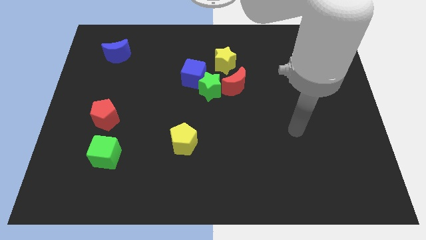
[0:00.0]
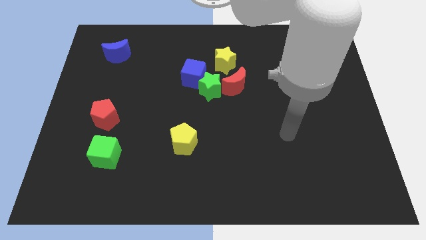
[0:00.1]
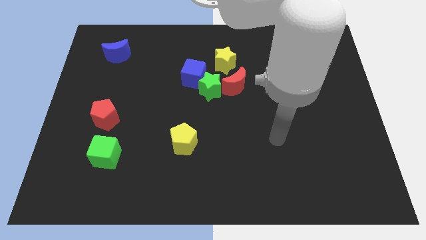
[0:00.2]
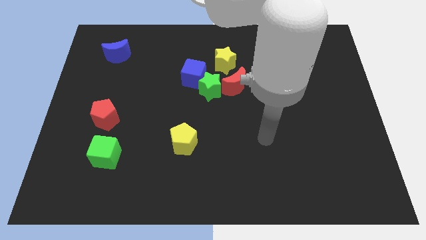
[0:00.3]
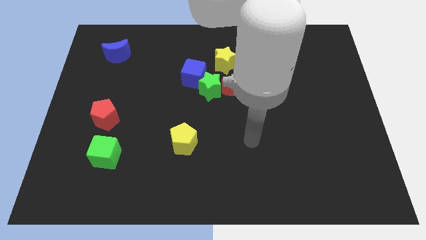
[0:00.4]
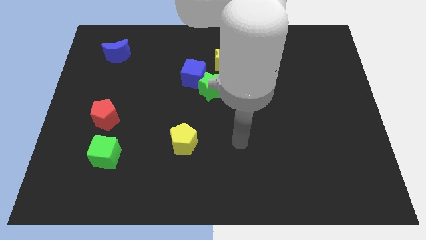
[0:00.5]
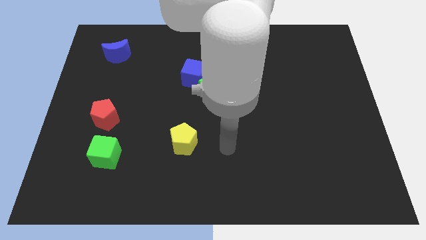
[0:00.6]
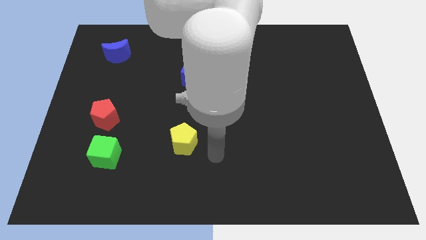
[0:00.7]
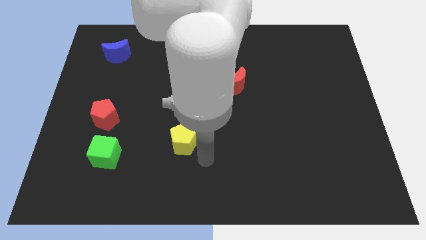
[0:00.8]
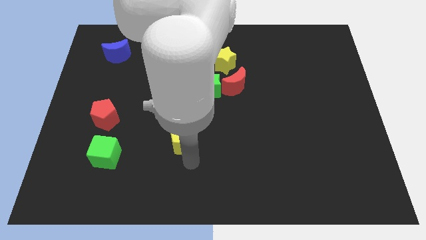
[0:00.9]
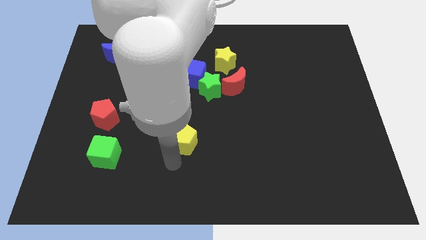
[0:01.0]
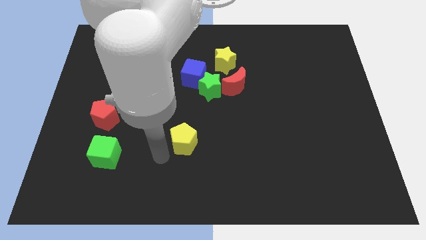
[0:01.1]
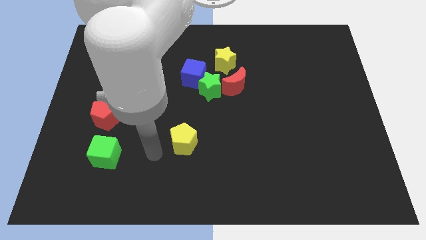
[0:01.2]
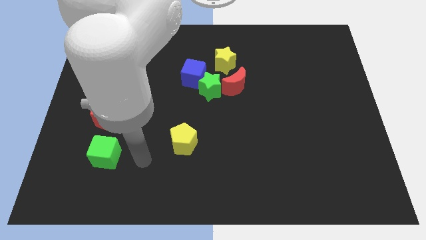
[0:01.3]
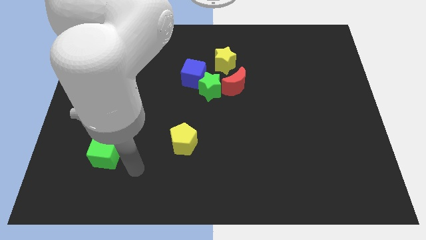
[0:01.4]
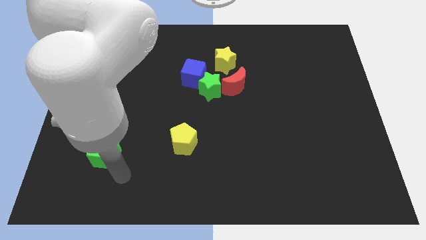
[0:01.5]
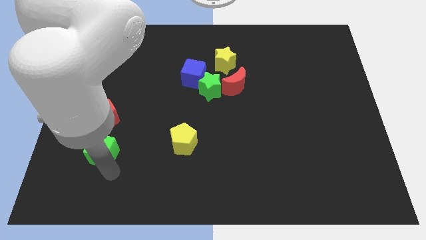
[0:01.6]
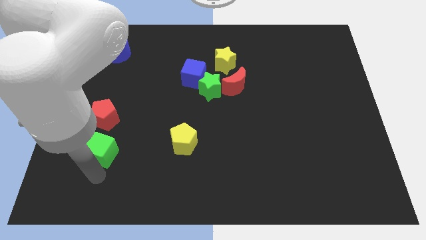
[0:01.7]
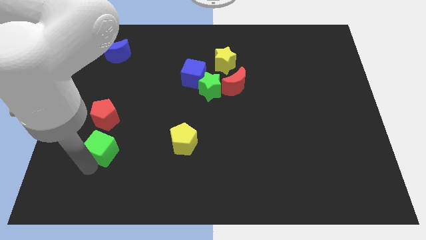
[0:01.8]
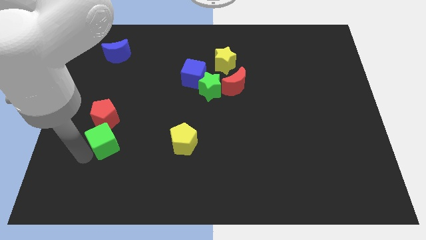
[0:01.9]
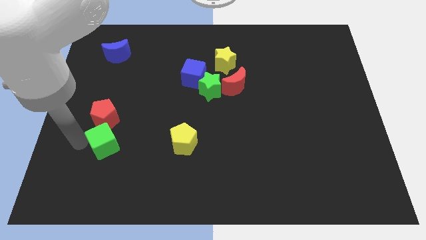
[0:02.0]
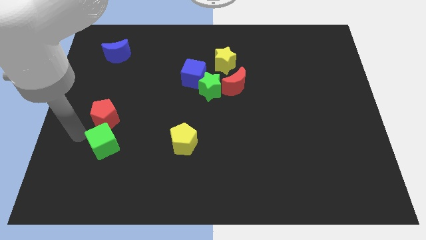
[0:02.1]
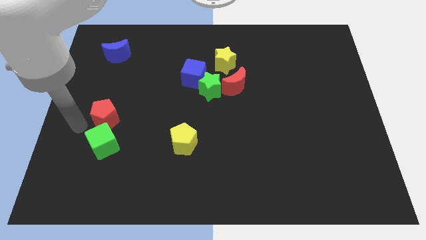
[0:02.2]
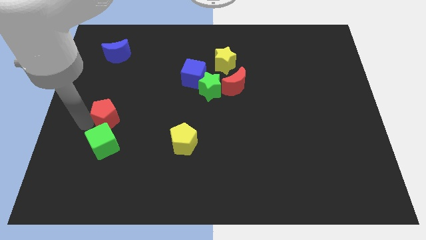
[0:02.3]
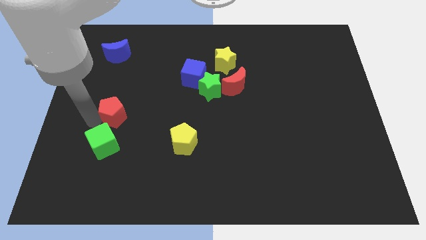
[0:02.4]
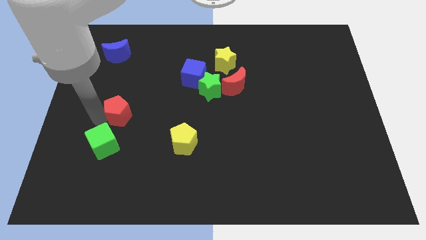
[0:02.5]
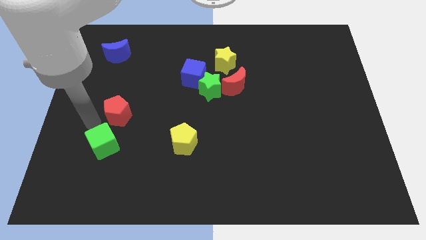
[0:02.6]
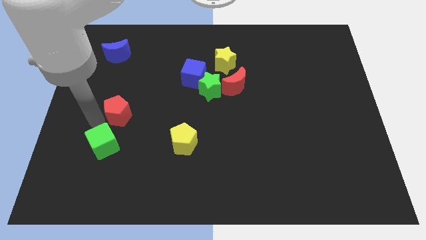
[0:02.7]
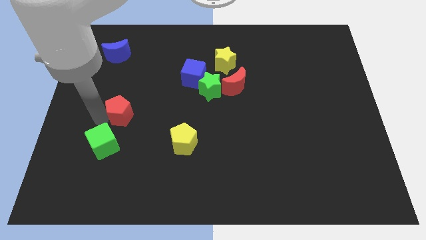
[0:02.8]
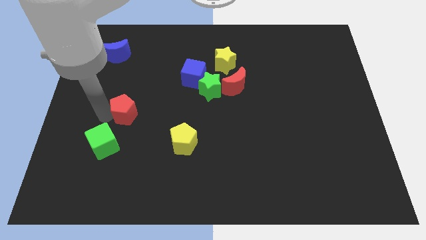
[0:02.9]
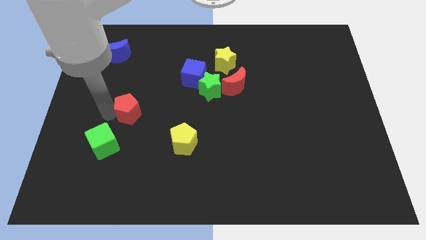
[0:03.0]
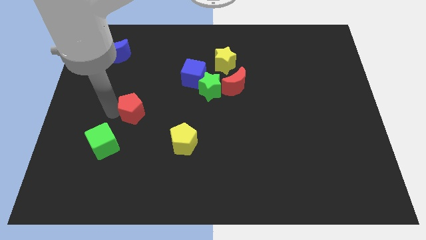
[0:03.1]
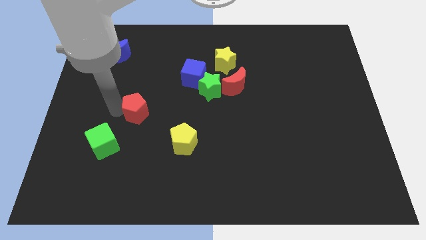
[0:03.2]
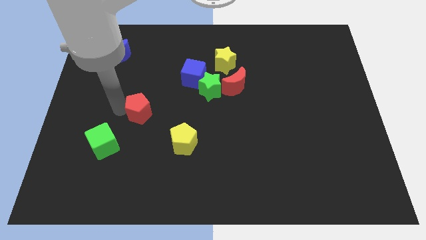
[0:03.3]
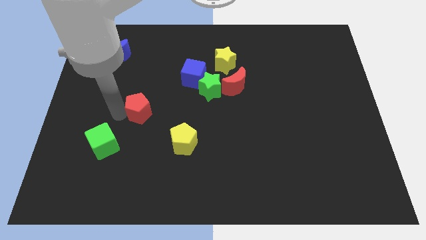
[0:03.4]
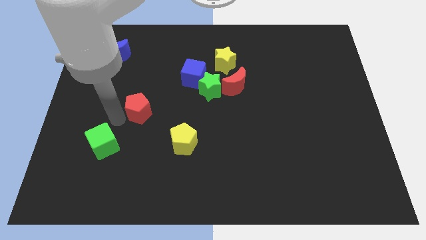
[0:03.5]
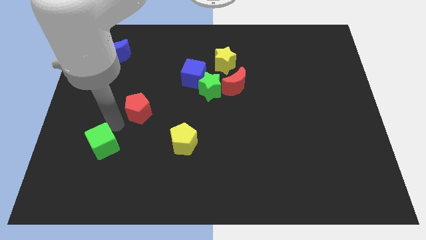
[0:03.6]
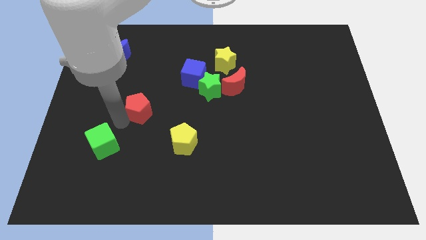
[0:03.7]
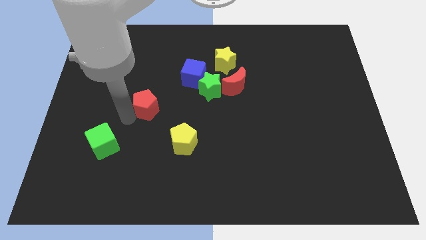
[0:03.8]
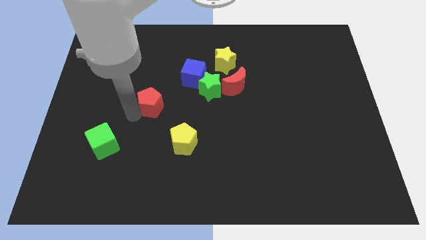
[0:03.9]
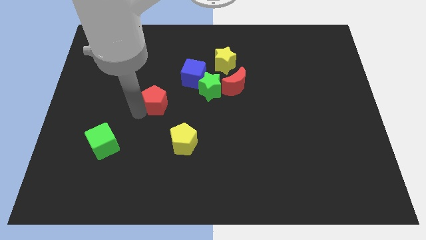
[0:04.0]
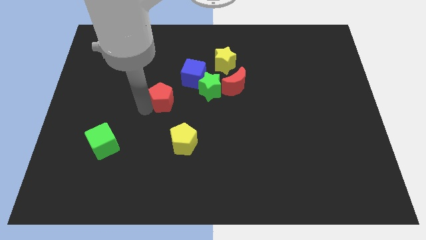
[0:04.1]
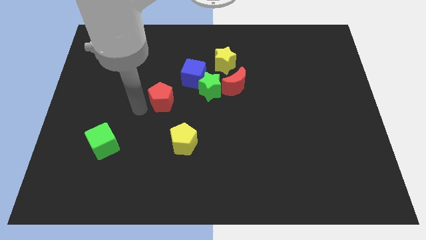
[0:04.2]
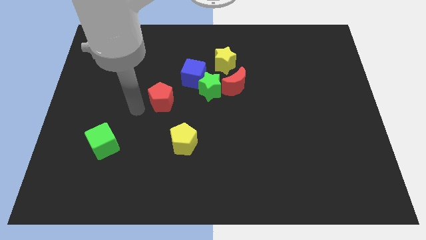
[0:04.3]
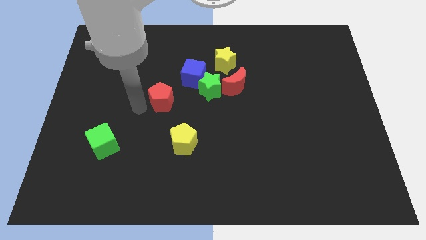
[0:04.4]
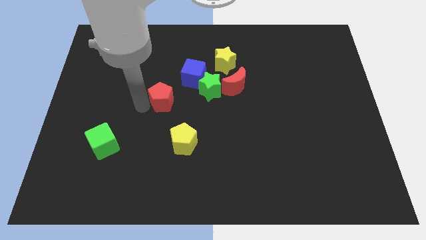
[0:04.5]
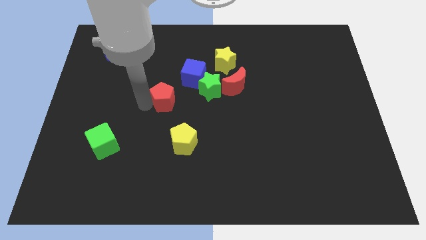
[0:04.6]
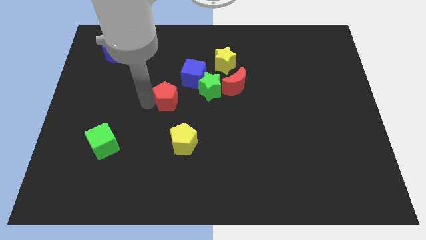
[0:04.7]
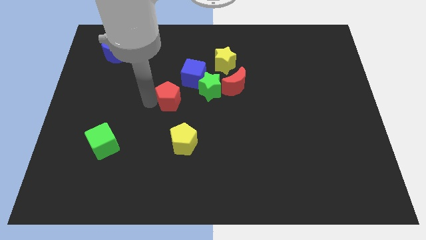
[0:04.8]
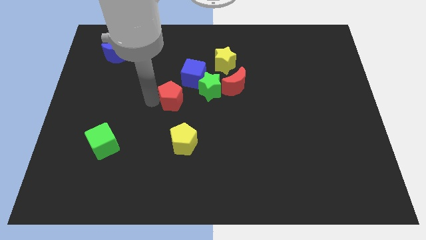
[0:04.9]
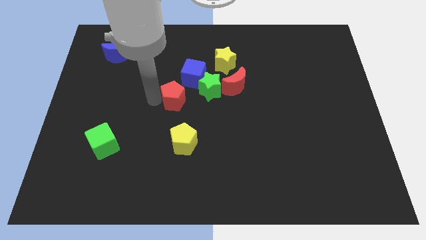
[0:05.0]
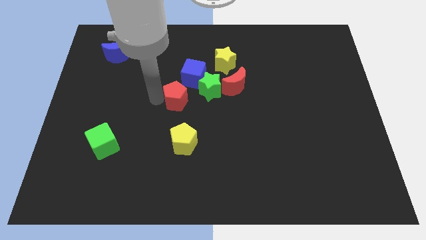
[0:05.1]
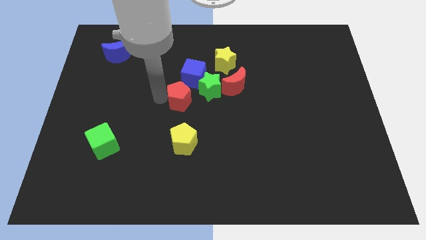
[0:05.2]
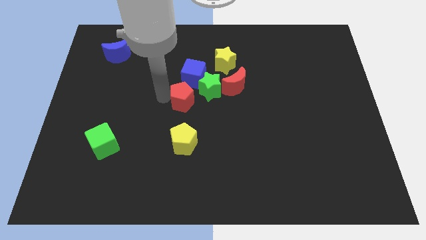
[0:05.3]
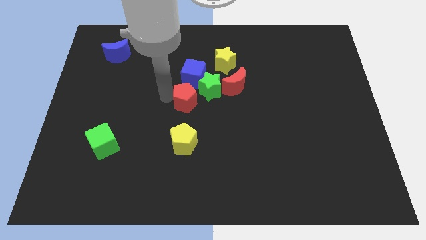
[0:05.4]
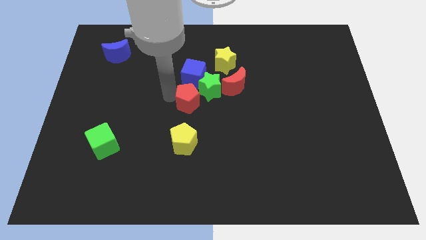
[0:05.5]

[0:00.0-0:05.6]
slide the red pentagon next to the green star

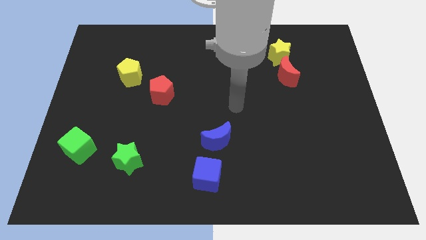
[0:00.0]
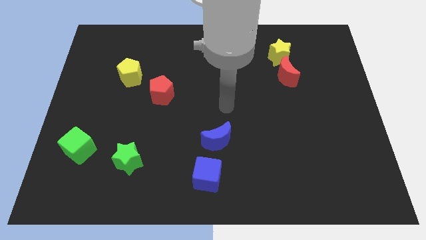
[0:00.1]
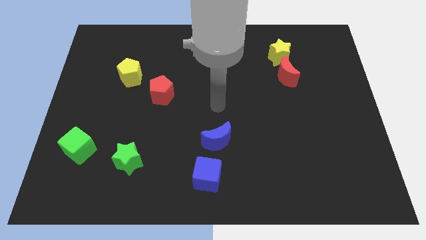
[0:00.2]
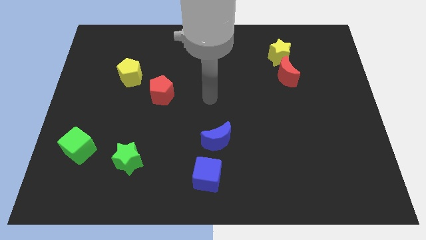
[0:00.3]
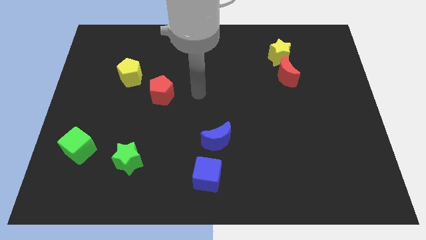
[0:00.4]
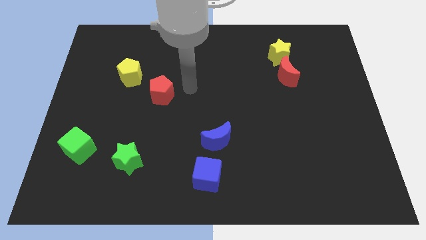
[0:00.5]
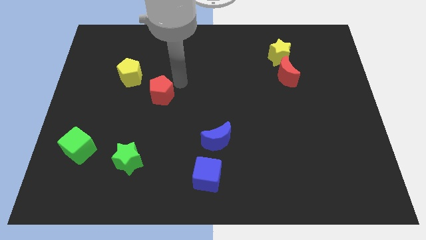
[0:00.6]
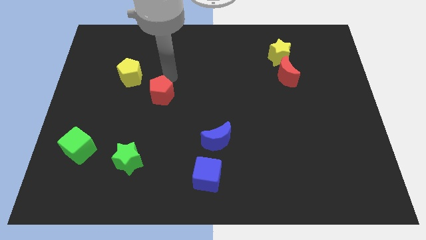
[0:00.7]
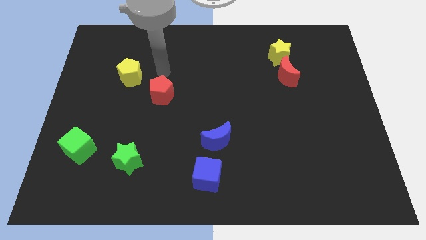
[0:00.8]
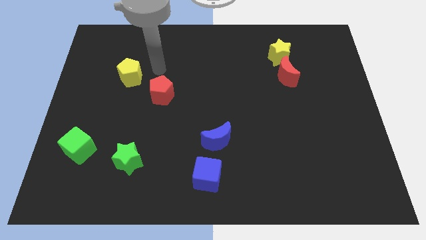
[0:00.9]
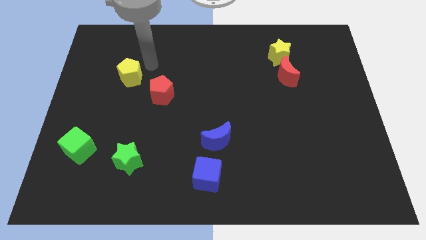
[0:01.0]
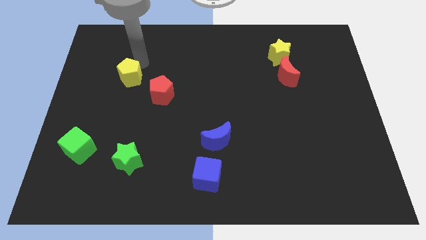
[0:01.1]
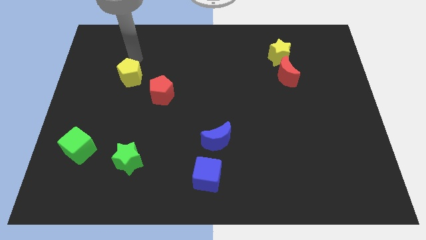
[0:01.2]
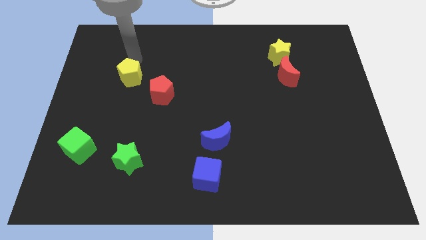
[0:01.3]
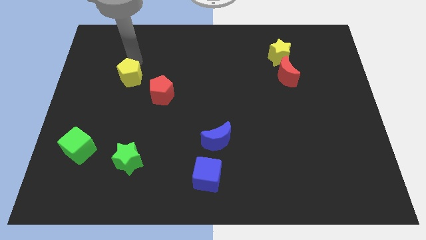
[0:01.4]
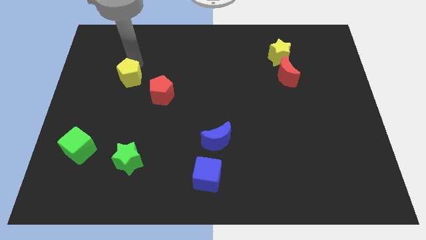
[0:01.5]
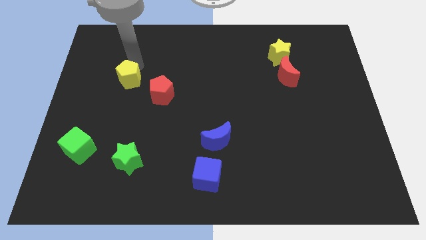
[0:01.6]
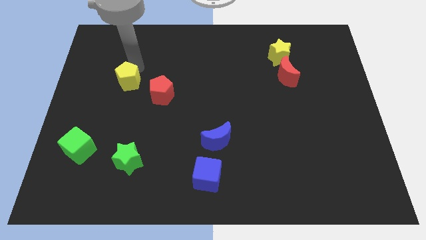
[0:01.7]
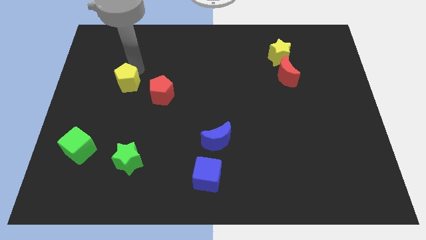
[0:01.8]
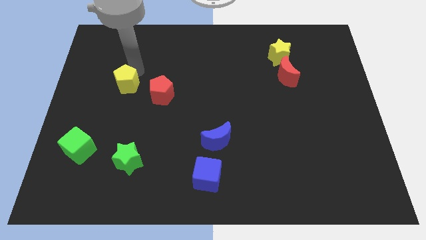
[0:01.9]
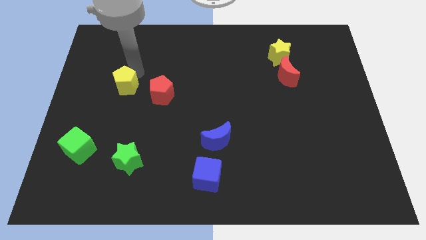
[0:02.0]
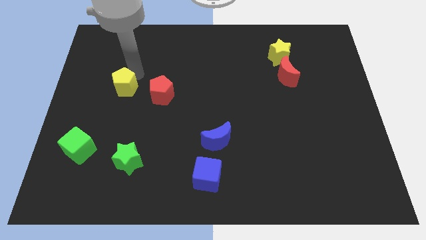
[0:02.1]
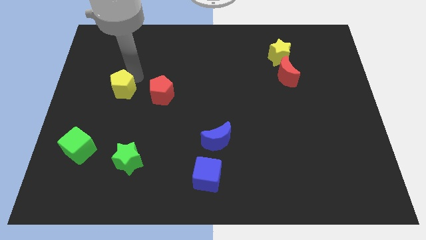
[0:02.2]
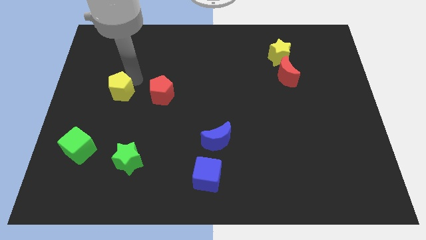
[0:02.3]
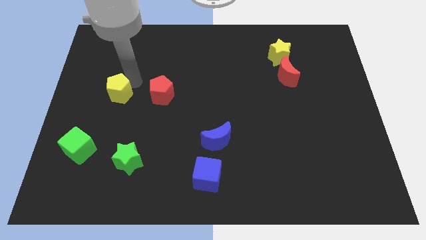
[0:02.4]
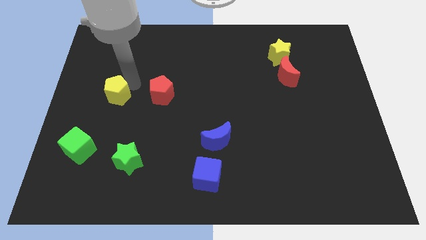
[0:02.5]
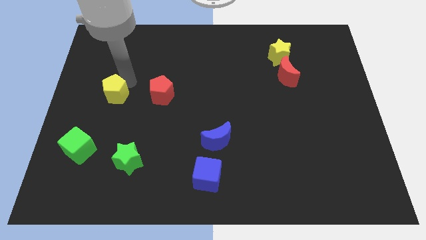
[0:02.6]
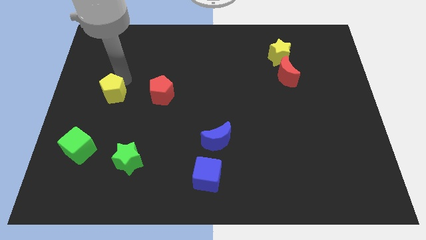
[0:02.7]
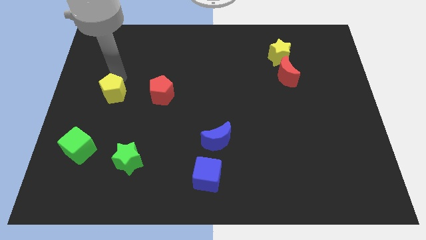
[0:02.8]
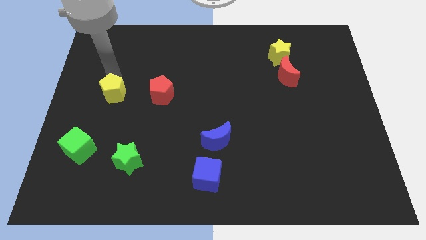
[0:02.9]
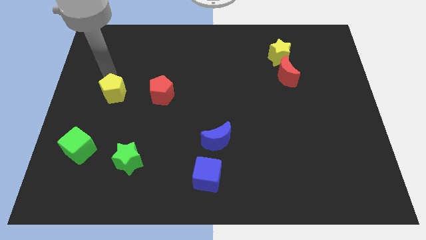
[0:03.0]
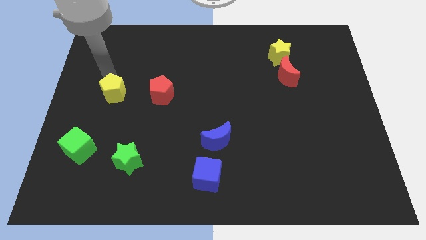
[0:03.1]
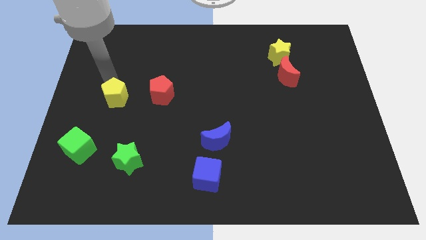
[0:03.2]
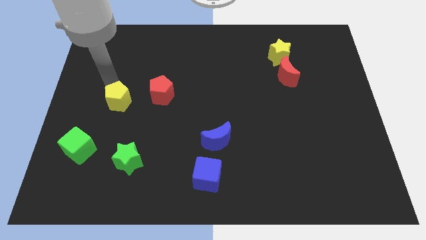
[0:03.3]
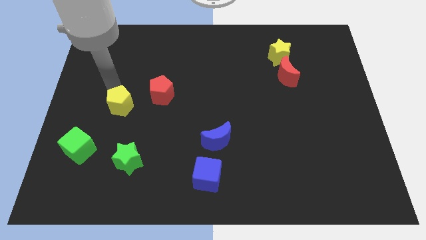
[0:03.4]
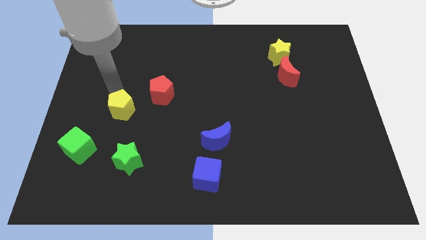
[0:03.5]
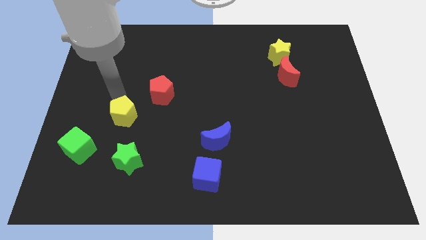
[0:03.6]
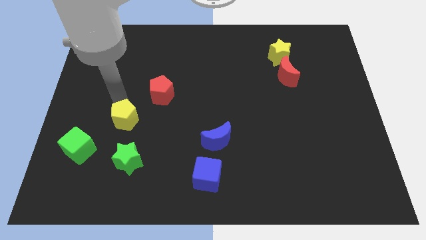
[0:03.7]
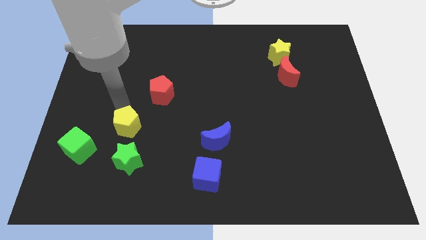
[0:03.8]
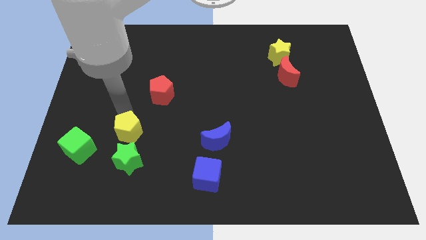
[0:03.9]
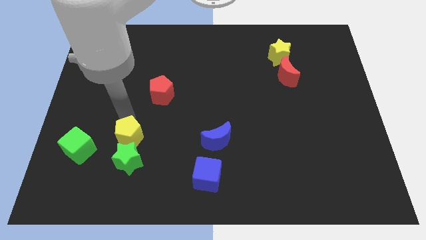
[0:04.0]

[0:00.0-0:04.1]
slide the yellow pentagon towards the green star
